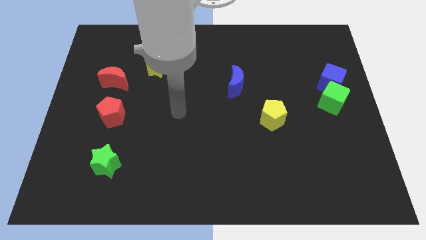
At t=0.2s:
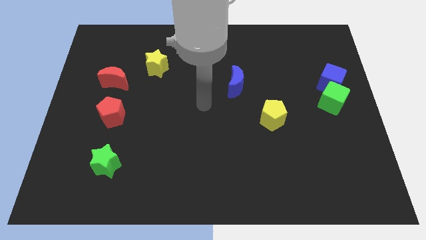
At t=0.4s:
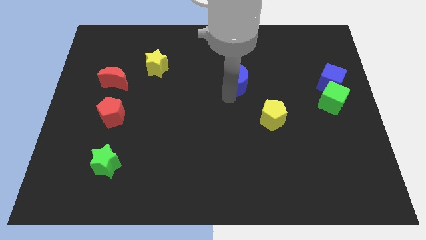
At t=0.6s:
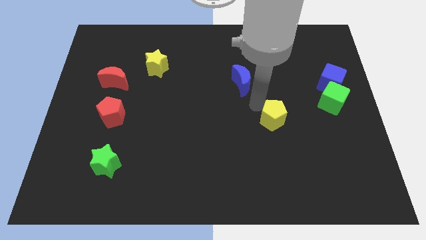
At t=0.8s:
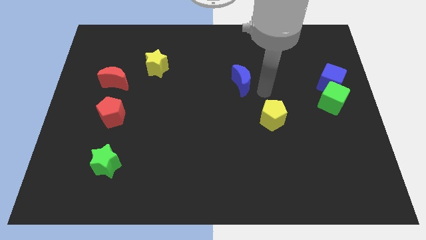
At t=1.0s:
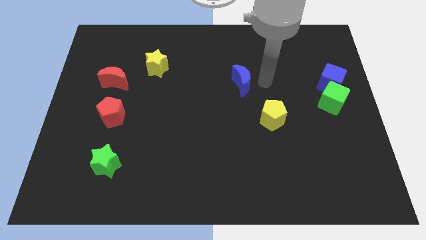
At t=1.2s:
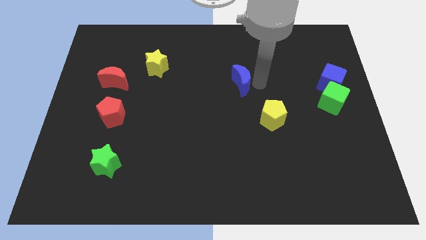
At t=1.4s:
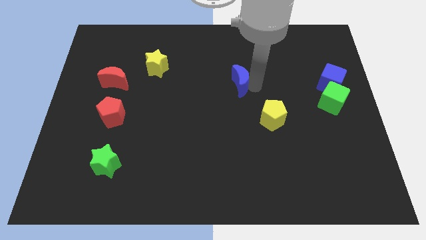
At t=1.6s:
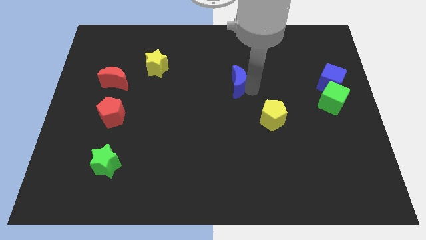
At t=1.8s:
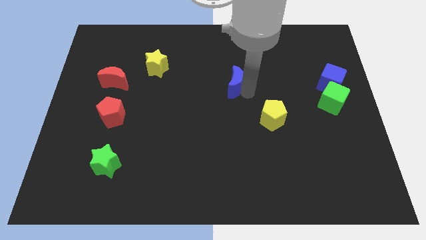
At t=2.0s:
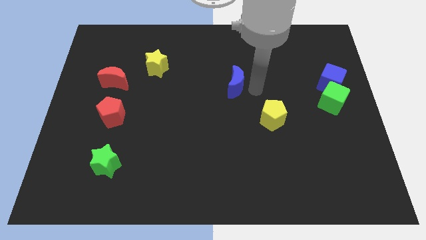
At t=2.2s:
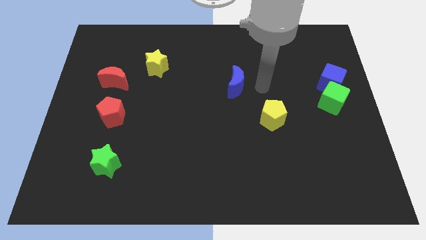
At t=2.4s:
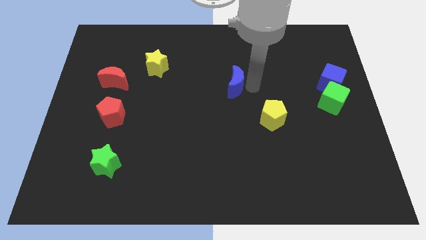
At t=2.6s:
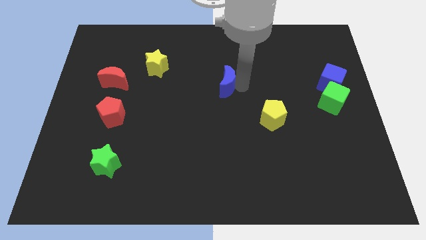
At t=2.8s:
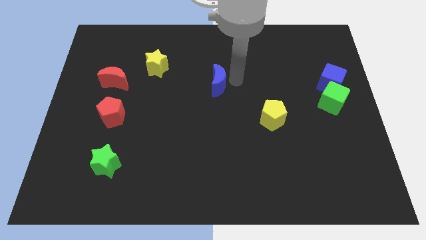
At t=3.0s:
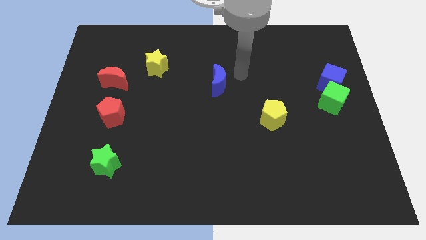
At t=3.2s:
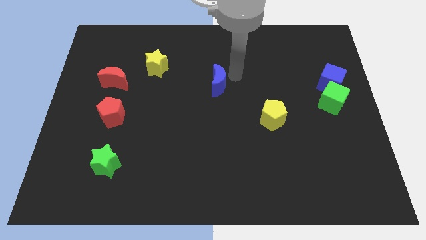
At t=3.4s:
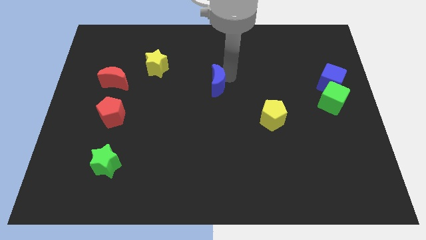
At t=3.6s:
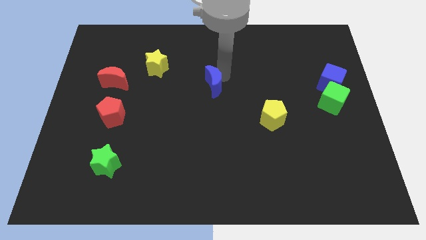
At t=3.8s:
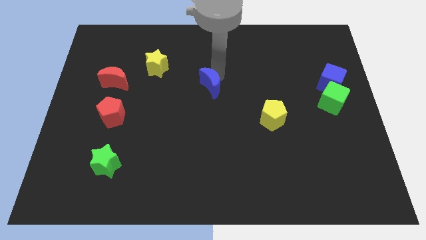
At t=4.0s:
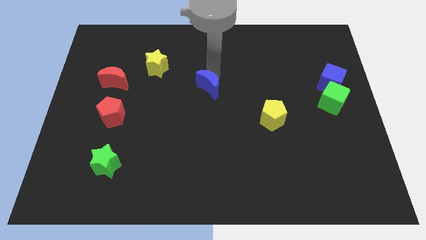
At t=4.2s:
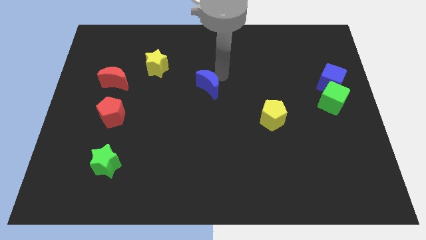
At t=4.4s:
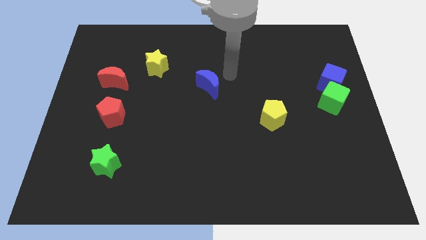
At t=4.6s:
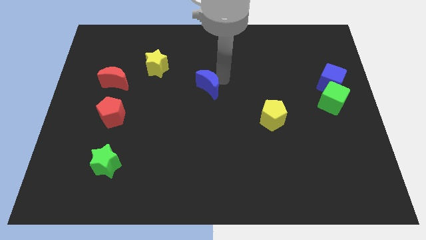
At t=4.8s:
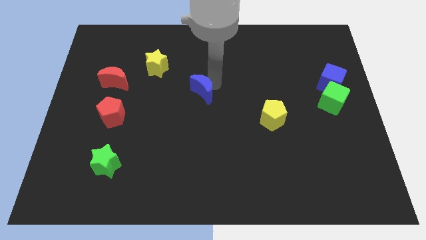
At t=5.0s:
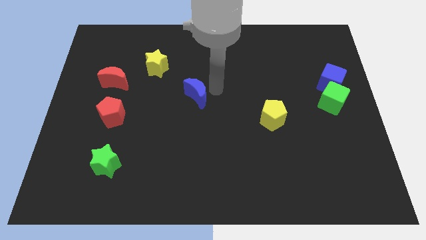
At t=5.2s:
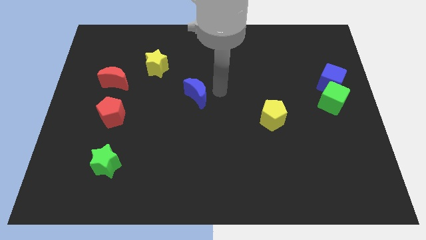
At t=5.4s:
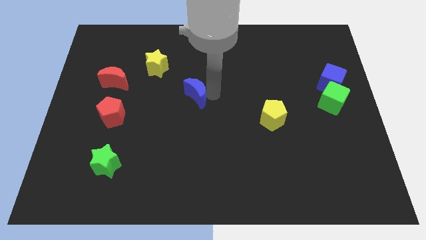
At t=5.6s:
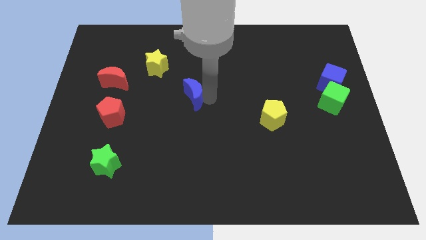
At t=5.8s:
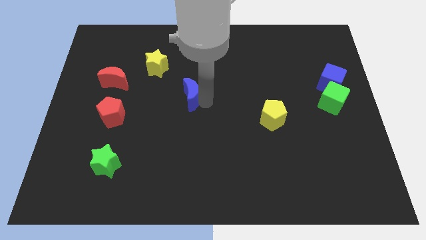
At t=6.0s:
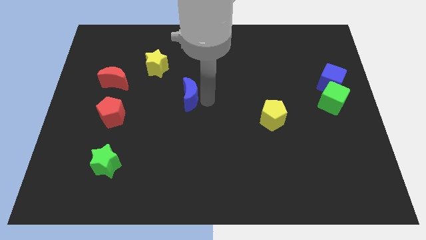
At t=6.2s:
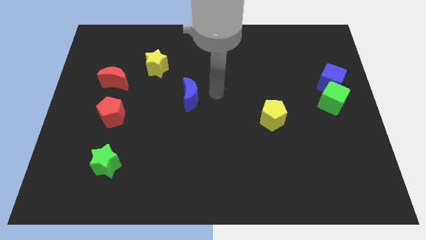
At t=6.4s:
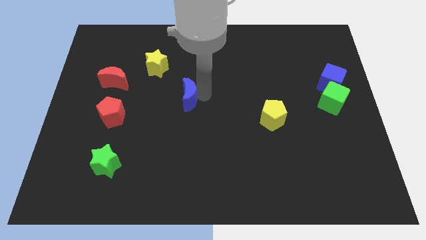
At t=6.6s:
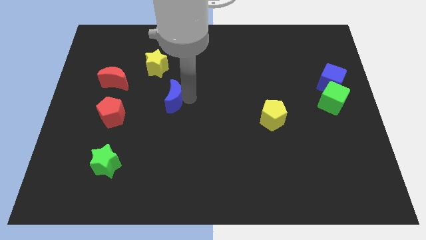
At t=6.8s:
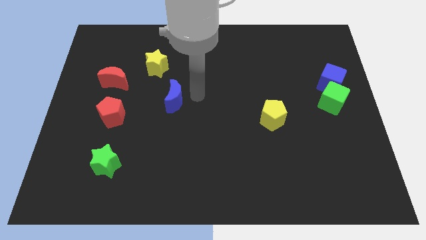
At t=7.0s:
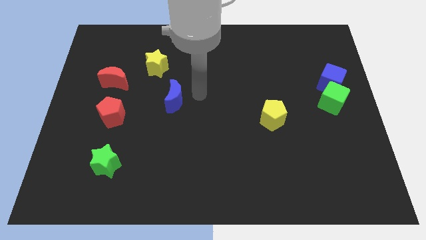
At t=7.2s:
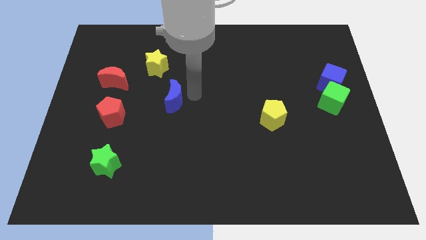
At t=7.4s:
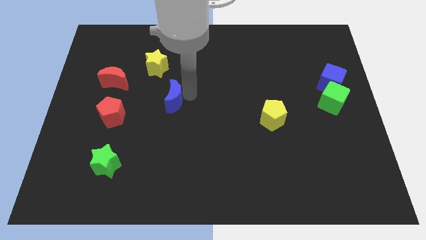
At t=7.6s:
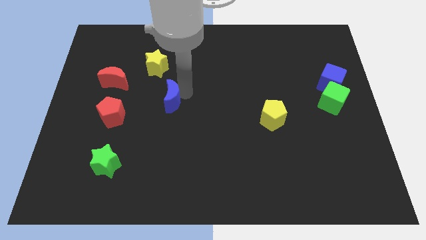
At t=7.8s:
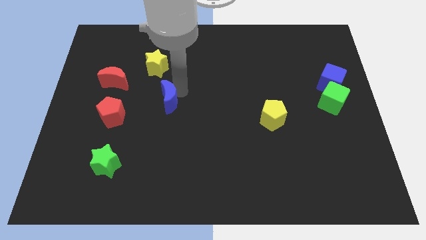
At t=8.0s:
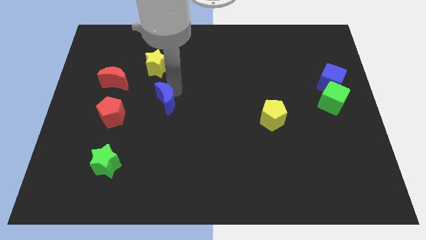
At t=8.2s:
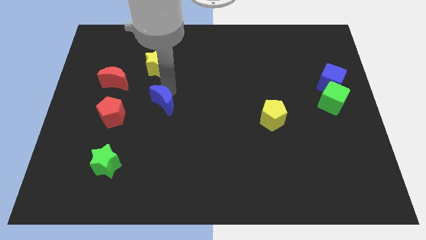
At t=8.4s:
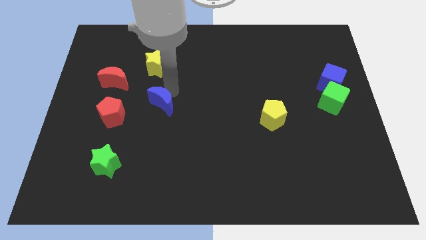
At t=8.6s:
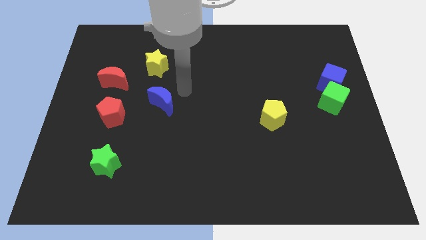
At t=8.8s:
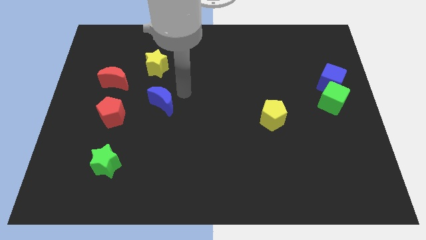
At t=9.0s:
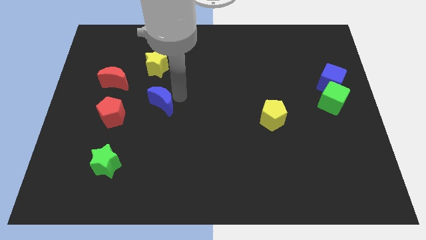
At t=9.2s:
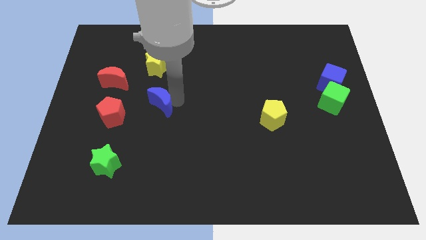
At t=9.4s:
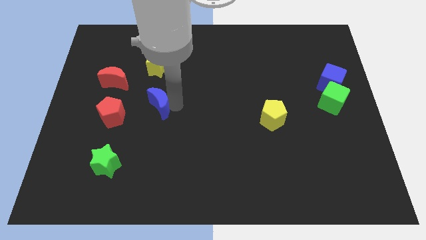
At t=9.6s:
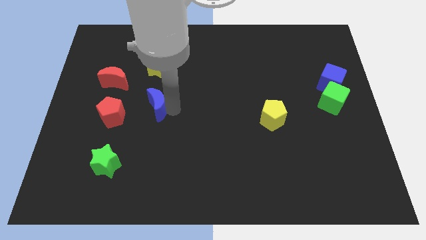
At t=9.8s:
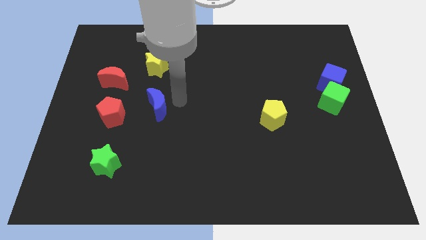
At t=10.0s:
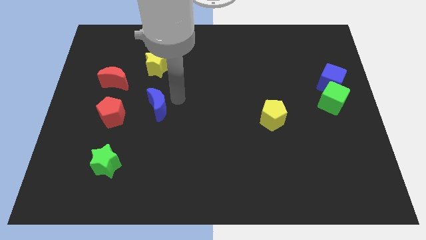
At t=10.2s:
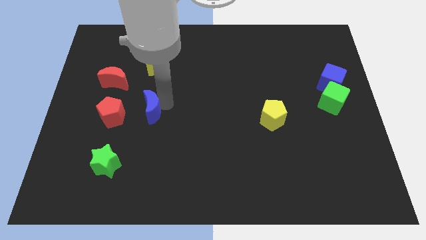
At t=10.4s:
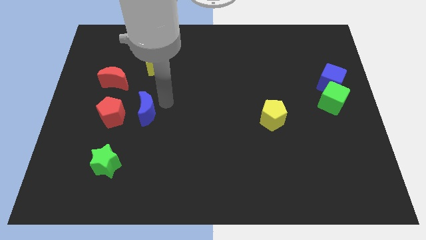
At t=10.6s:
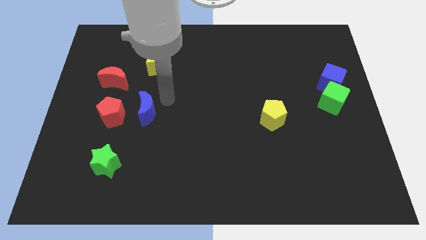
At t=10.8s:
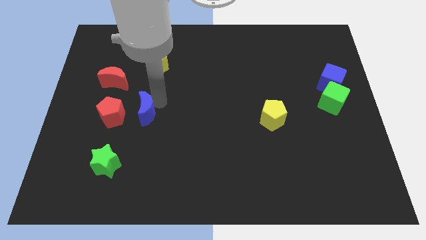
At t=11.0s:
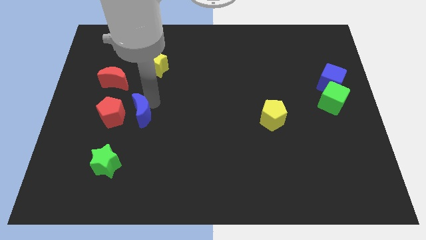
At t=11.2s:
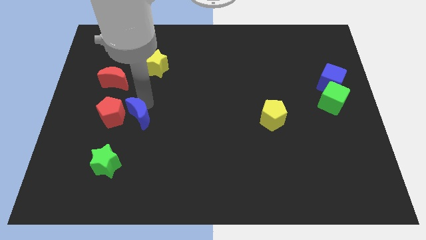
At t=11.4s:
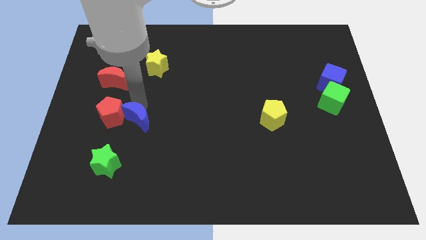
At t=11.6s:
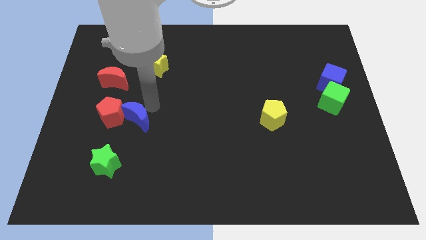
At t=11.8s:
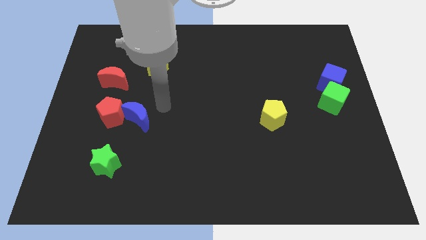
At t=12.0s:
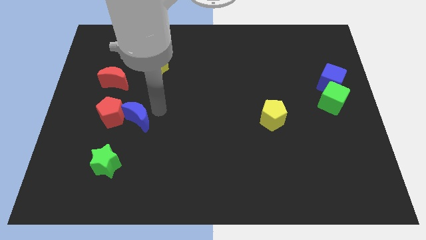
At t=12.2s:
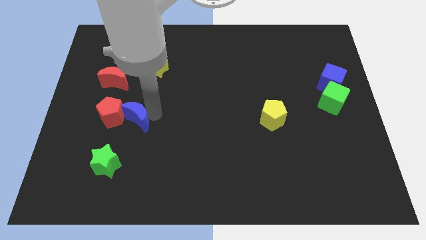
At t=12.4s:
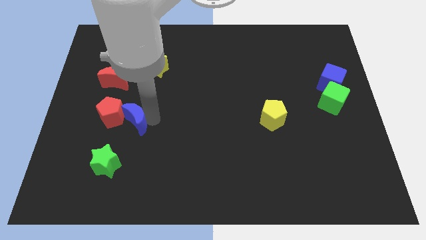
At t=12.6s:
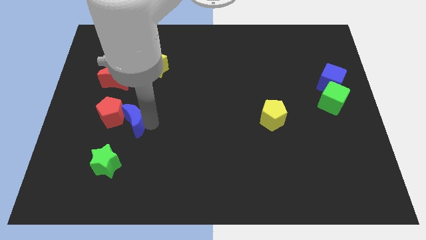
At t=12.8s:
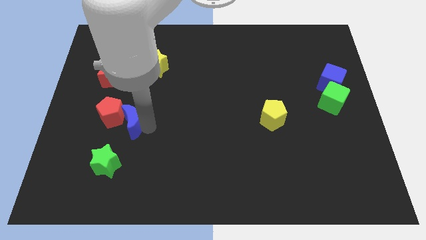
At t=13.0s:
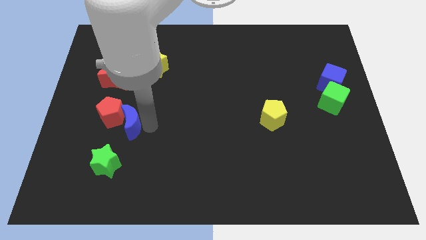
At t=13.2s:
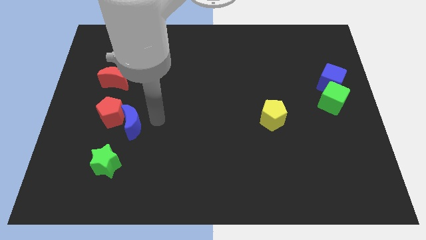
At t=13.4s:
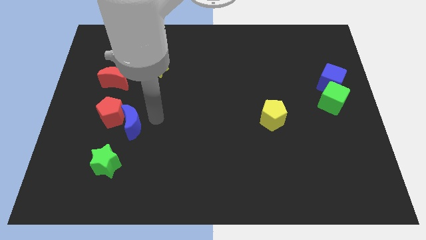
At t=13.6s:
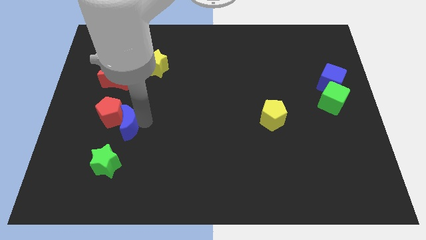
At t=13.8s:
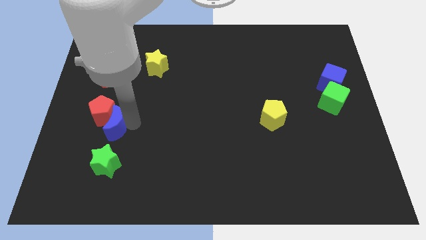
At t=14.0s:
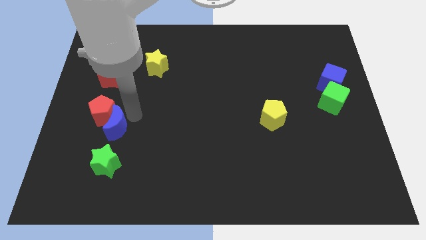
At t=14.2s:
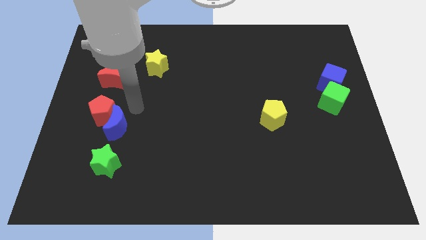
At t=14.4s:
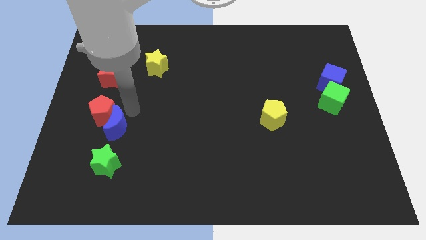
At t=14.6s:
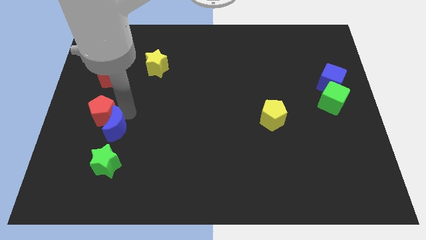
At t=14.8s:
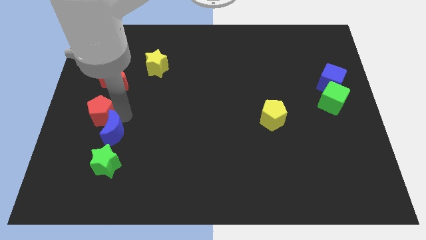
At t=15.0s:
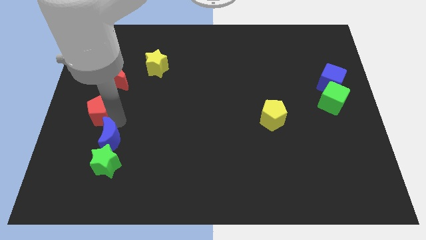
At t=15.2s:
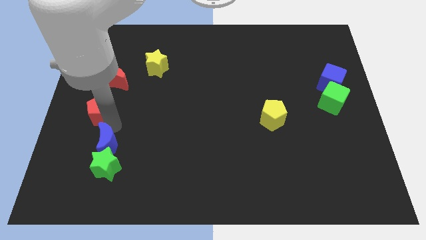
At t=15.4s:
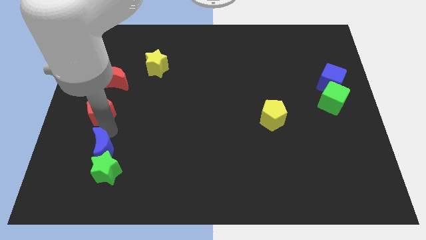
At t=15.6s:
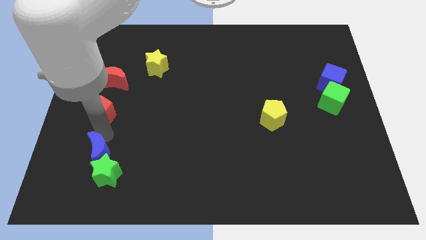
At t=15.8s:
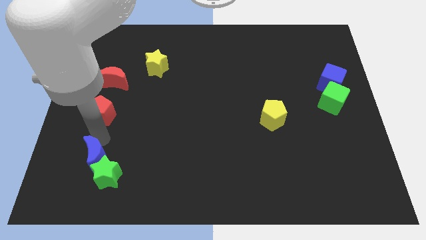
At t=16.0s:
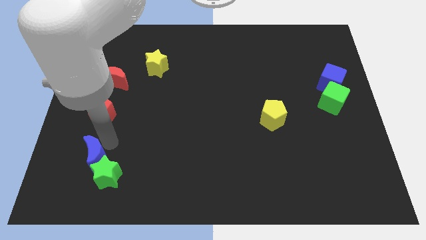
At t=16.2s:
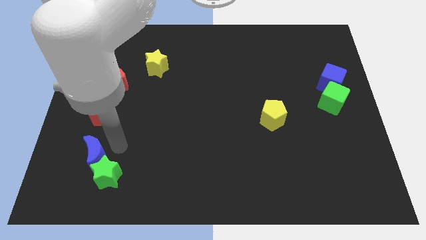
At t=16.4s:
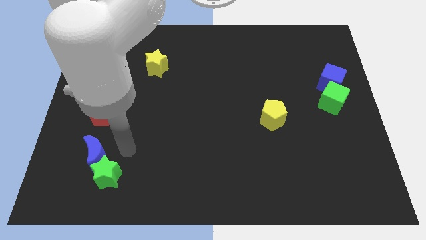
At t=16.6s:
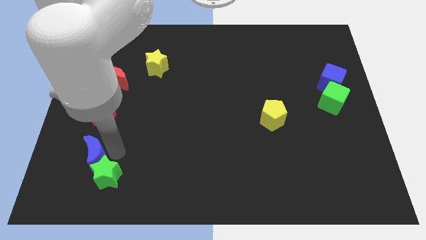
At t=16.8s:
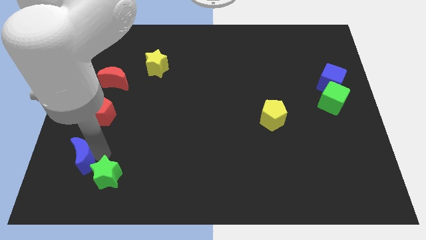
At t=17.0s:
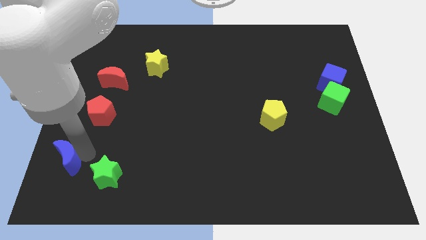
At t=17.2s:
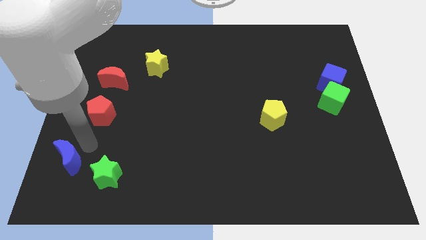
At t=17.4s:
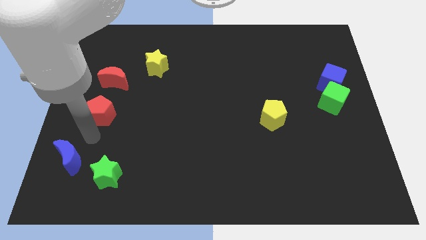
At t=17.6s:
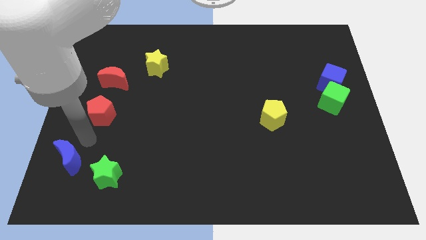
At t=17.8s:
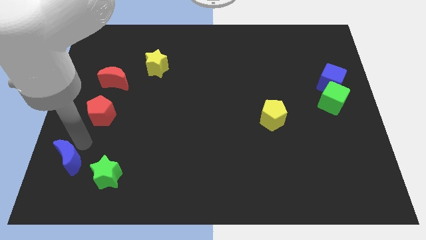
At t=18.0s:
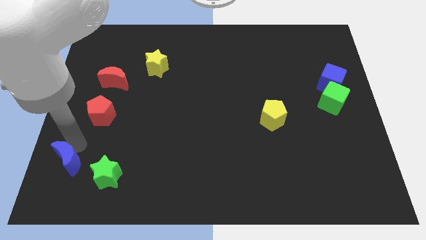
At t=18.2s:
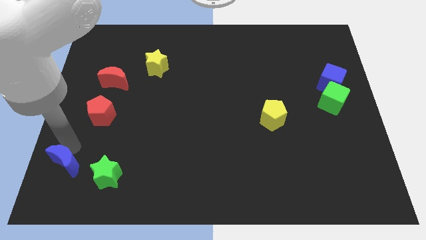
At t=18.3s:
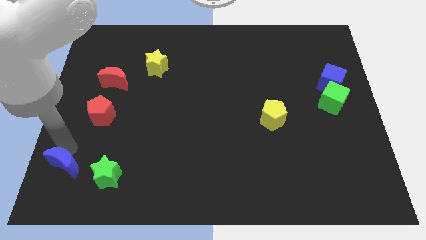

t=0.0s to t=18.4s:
slide the blue moon to the bottom left corner
